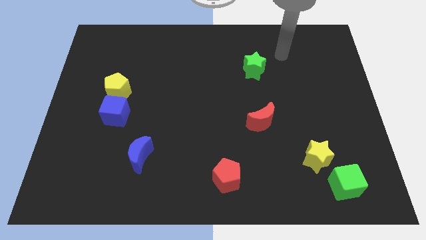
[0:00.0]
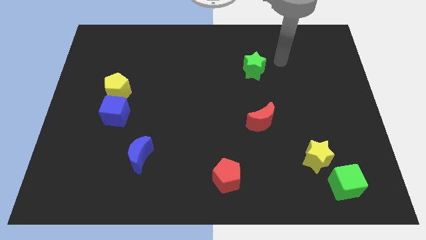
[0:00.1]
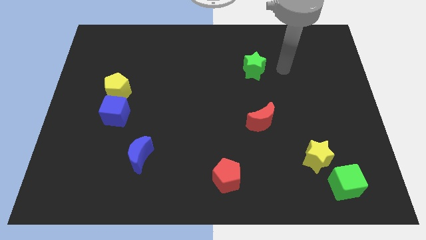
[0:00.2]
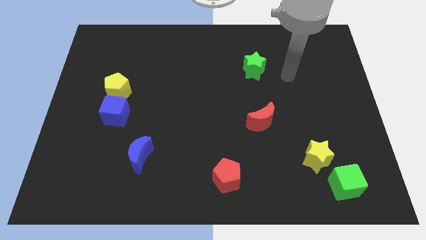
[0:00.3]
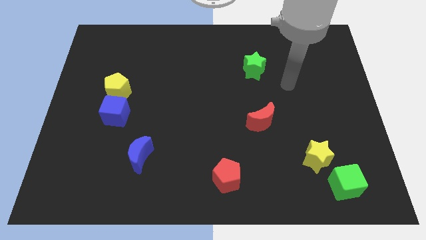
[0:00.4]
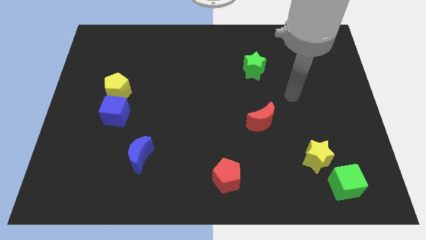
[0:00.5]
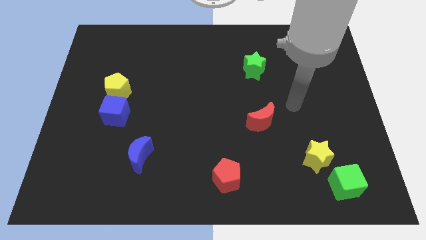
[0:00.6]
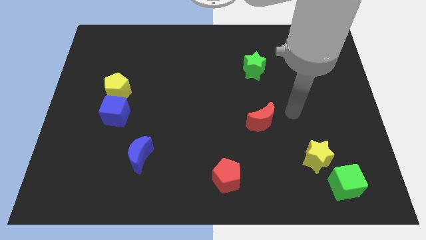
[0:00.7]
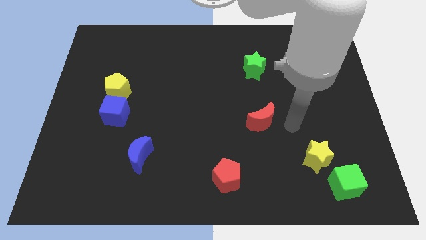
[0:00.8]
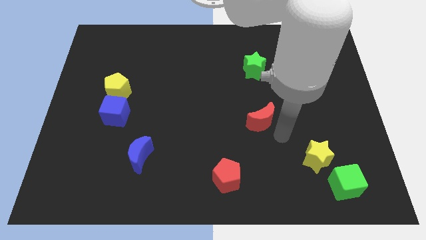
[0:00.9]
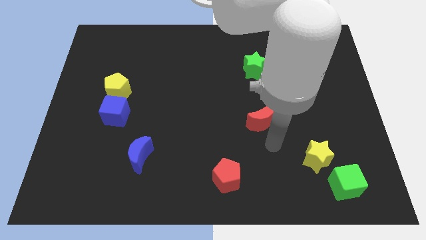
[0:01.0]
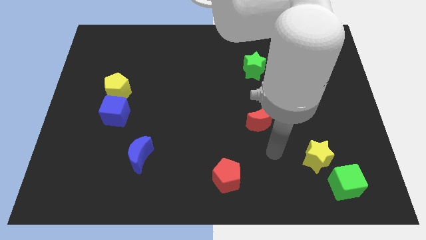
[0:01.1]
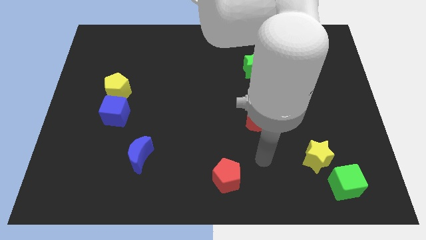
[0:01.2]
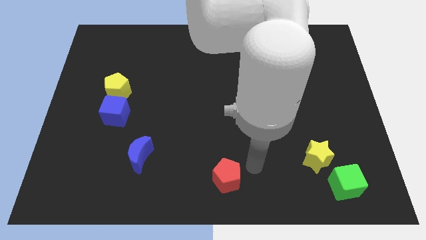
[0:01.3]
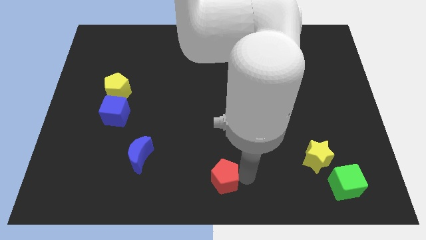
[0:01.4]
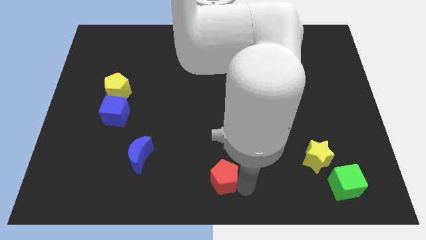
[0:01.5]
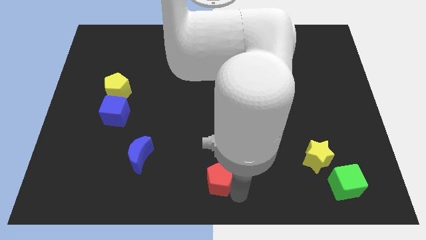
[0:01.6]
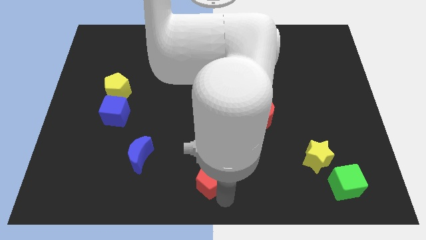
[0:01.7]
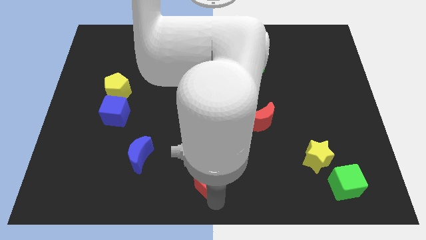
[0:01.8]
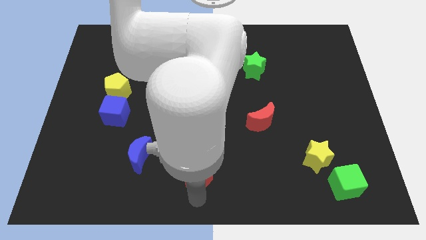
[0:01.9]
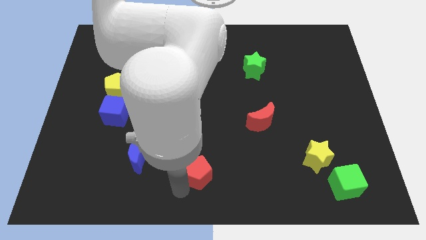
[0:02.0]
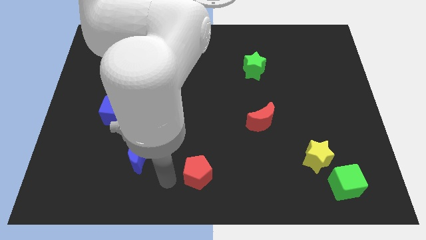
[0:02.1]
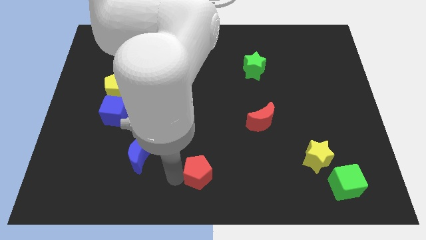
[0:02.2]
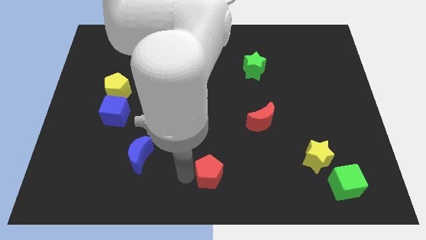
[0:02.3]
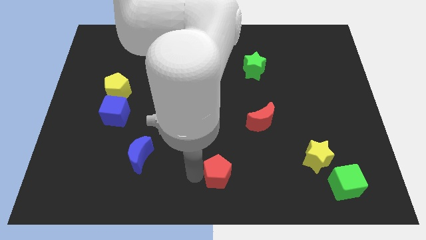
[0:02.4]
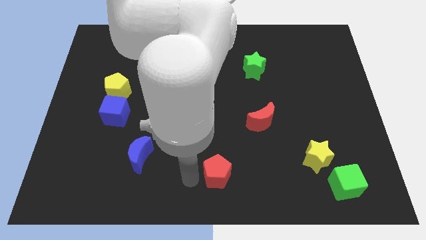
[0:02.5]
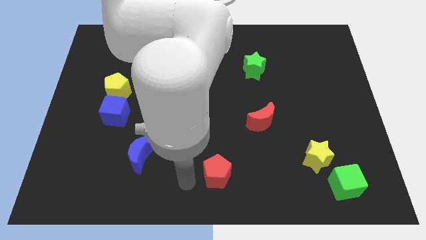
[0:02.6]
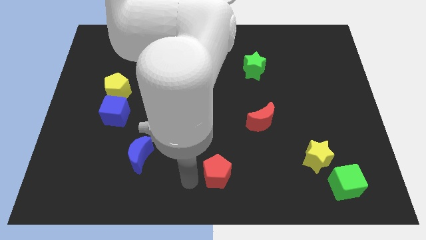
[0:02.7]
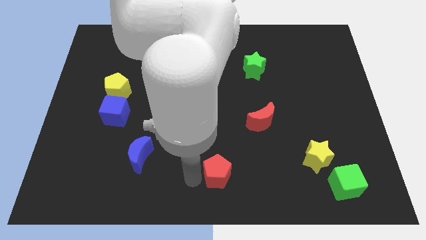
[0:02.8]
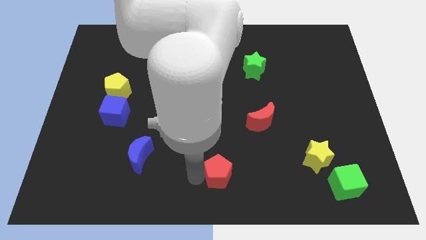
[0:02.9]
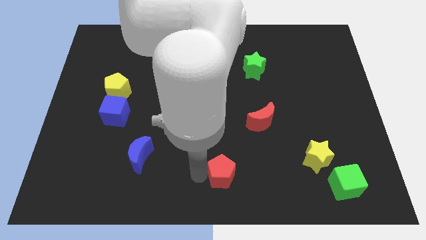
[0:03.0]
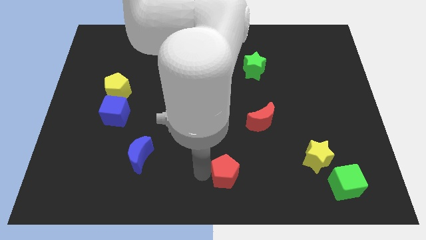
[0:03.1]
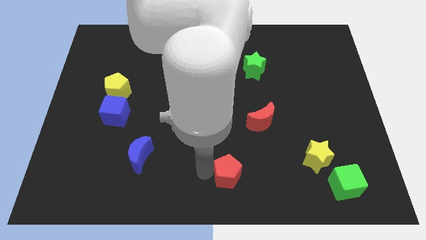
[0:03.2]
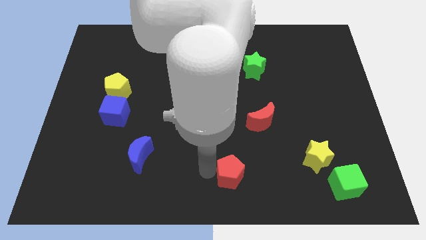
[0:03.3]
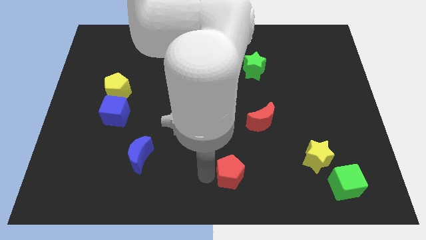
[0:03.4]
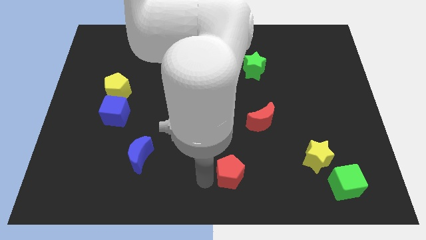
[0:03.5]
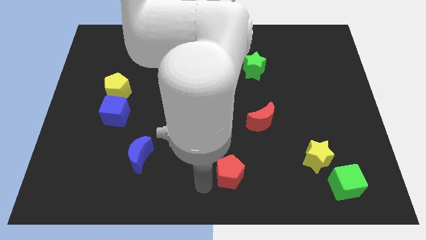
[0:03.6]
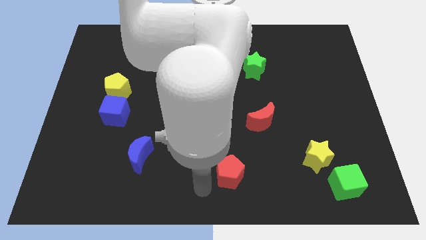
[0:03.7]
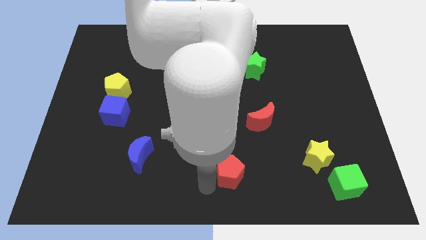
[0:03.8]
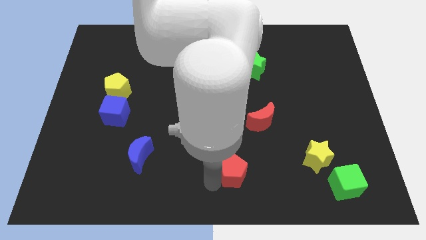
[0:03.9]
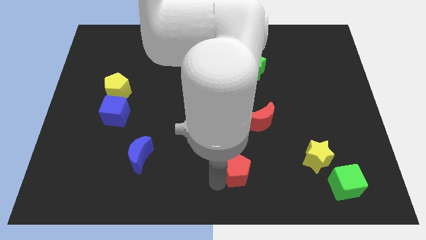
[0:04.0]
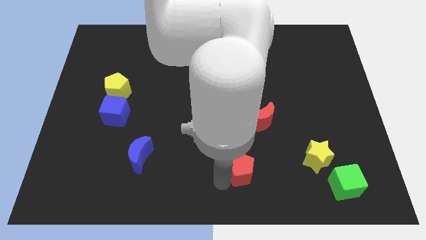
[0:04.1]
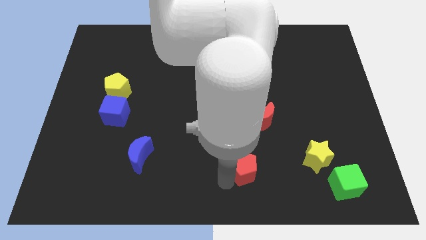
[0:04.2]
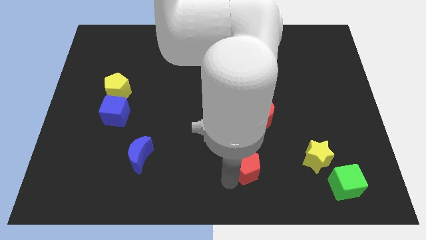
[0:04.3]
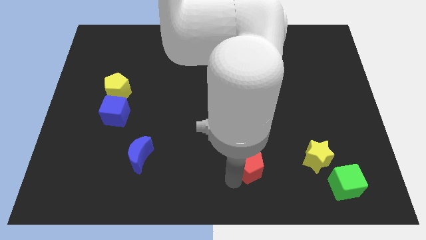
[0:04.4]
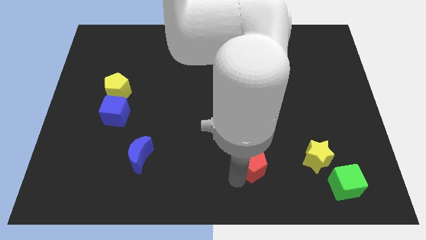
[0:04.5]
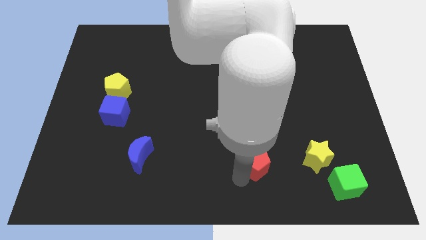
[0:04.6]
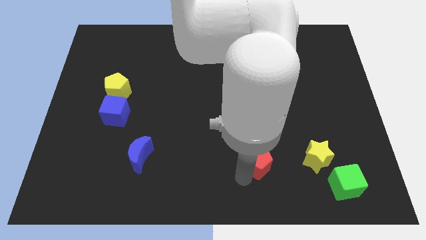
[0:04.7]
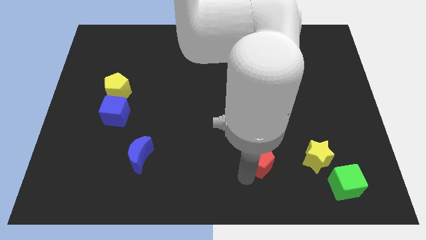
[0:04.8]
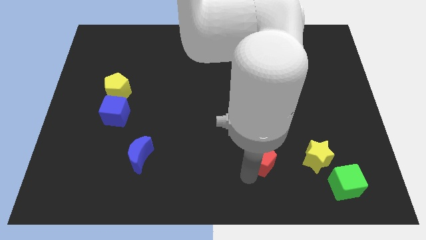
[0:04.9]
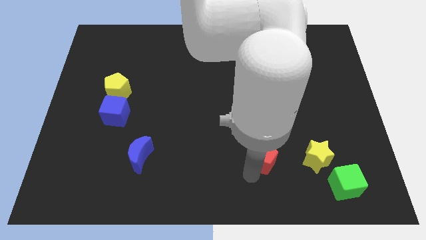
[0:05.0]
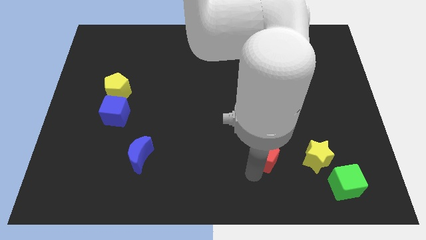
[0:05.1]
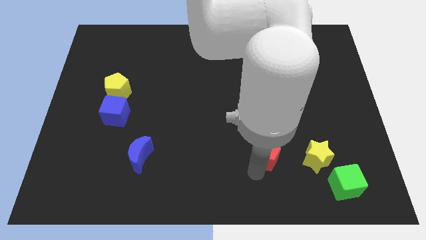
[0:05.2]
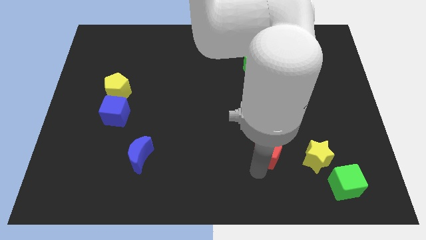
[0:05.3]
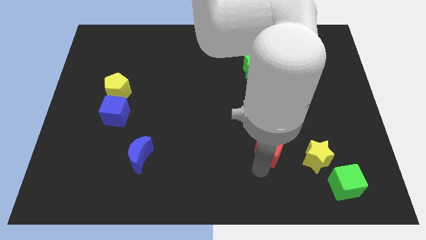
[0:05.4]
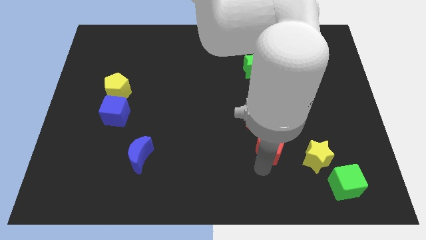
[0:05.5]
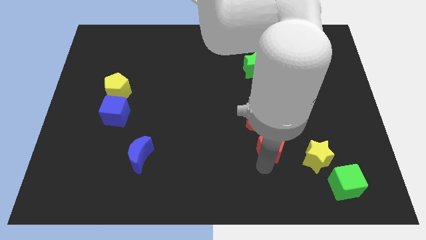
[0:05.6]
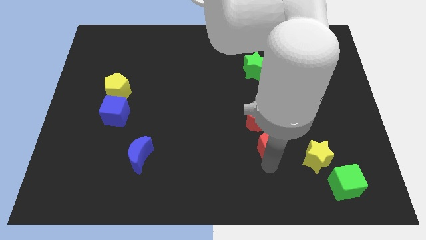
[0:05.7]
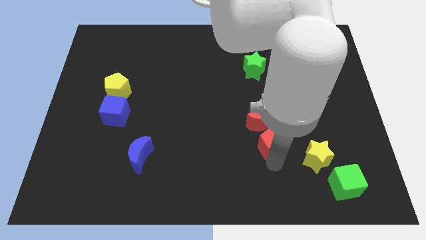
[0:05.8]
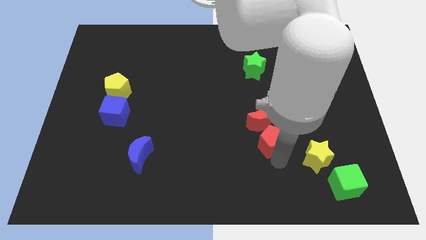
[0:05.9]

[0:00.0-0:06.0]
move the red pentagon to the red moon

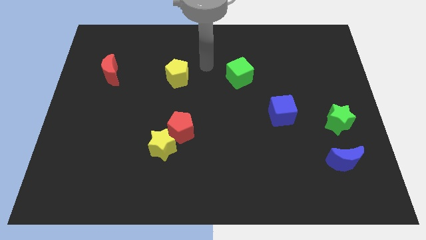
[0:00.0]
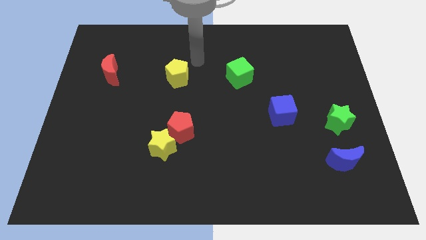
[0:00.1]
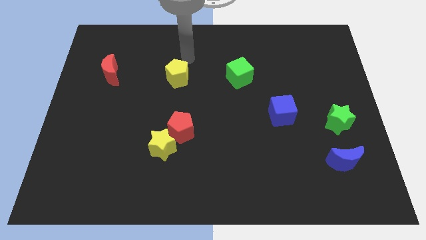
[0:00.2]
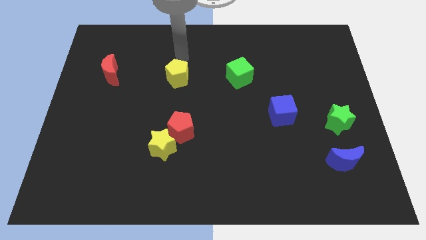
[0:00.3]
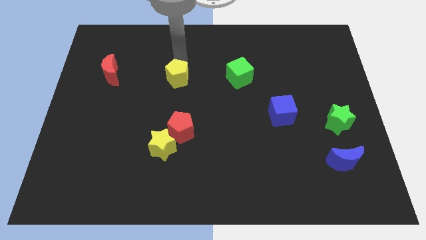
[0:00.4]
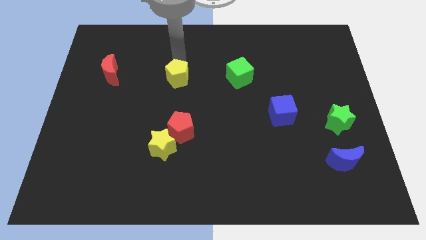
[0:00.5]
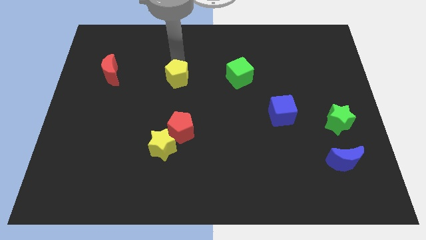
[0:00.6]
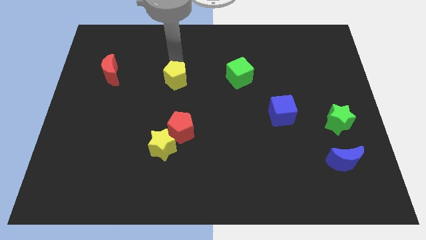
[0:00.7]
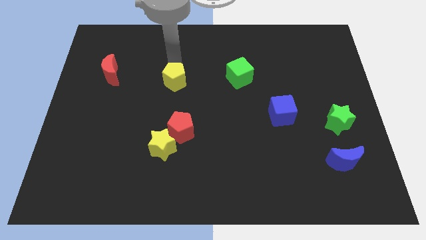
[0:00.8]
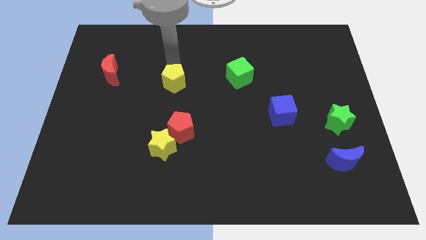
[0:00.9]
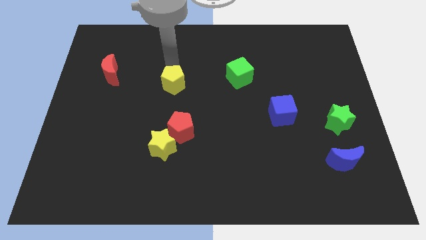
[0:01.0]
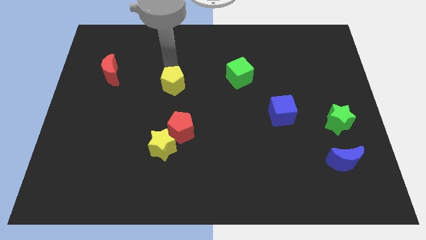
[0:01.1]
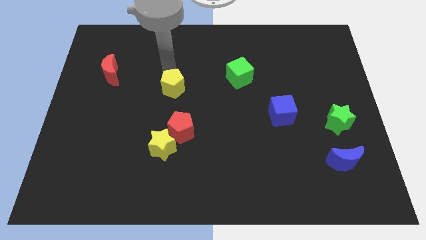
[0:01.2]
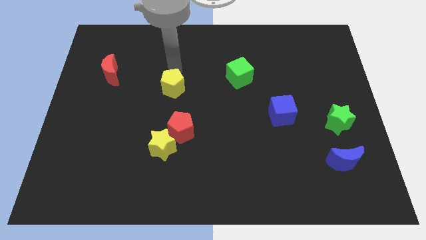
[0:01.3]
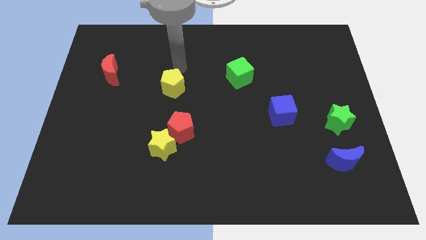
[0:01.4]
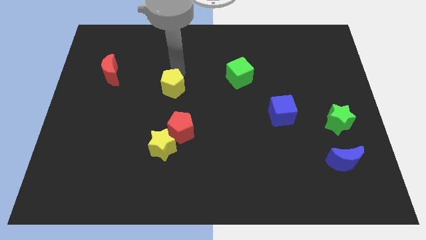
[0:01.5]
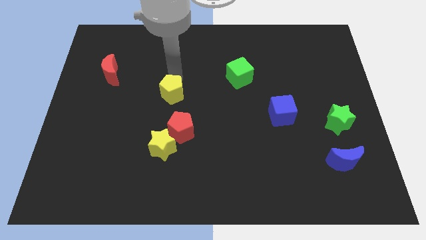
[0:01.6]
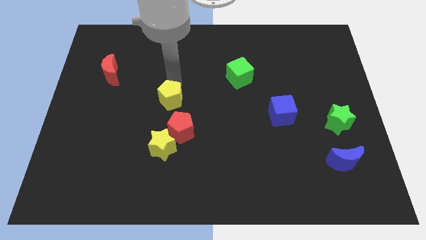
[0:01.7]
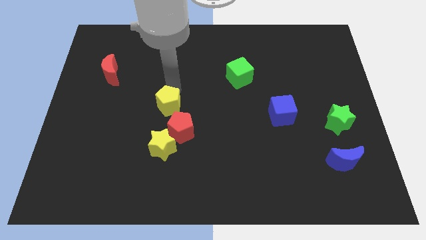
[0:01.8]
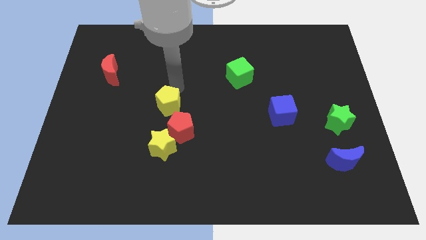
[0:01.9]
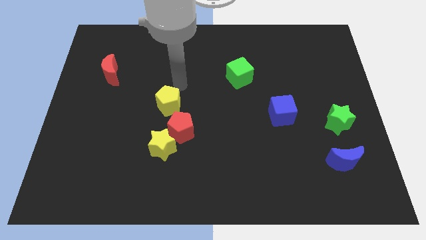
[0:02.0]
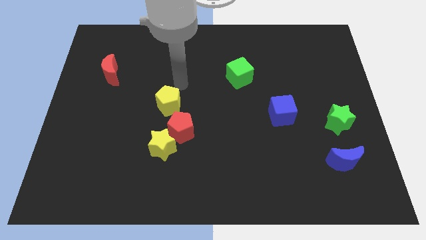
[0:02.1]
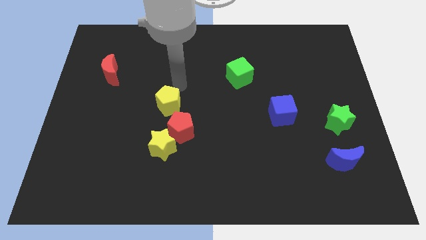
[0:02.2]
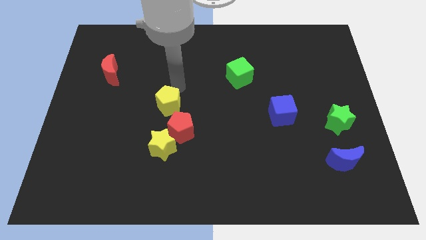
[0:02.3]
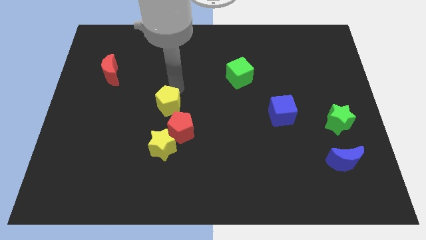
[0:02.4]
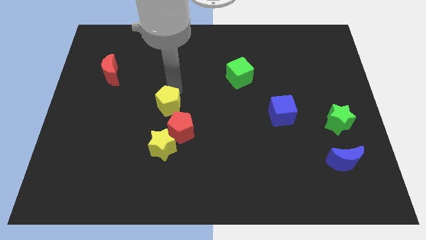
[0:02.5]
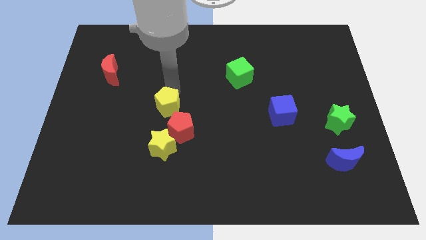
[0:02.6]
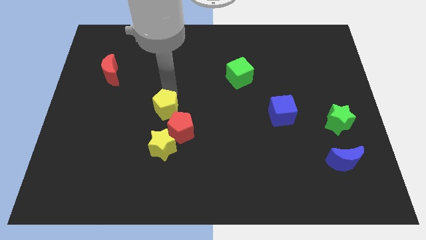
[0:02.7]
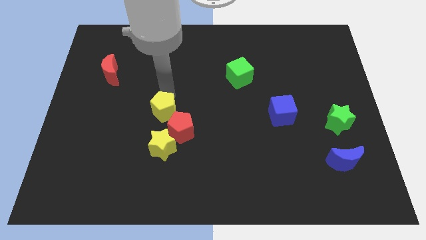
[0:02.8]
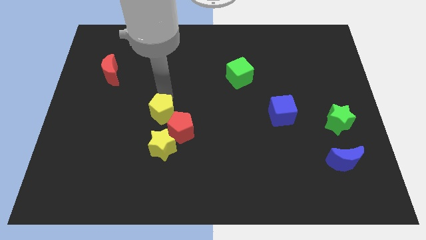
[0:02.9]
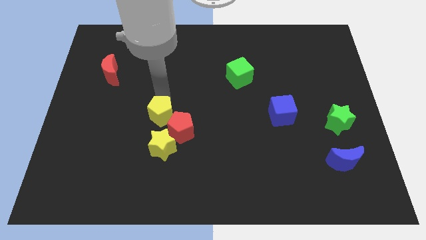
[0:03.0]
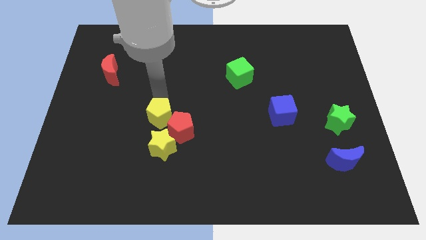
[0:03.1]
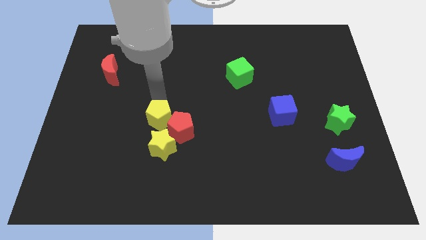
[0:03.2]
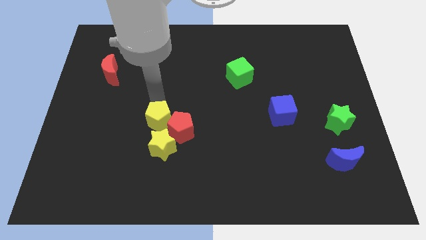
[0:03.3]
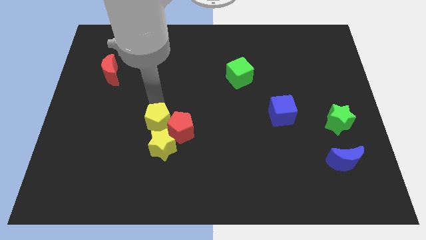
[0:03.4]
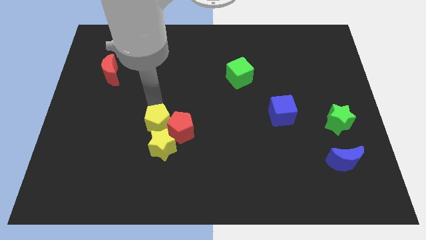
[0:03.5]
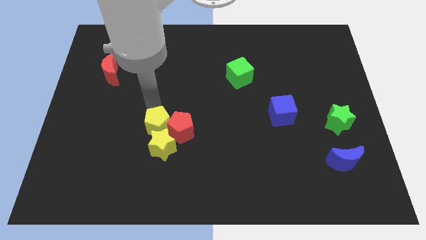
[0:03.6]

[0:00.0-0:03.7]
push the yellow pentagon towards the yellow star
